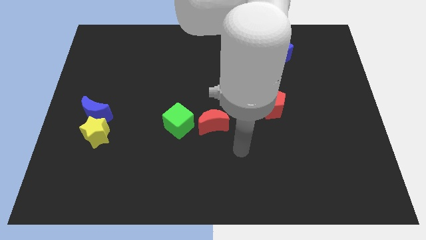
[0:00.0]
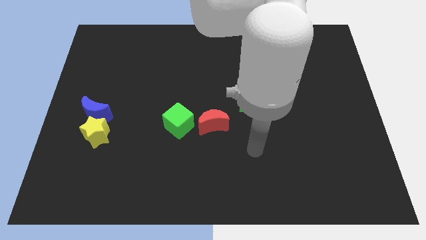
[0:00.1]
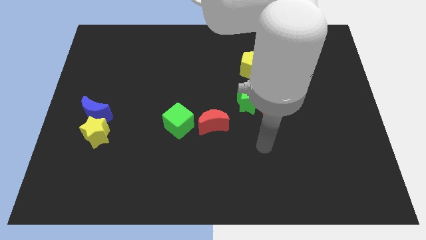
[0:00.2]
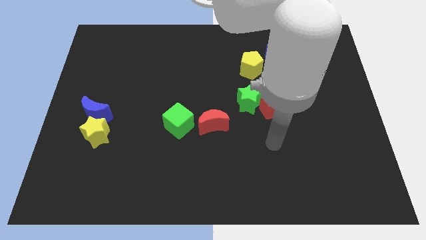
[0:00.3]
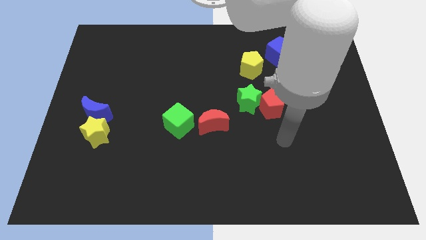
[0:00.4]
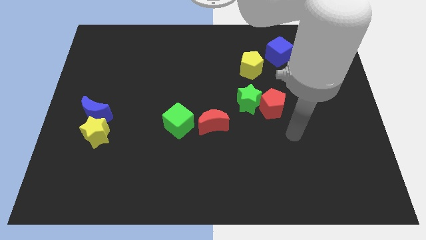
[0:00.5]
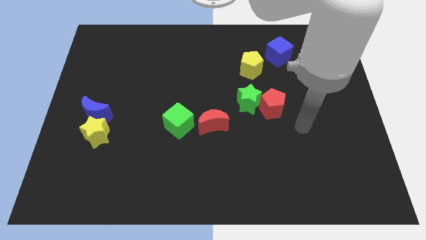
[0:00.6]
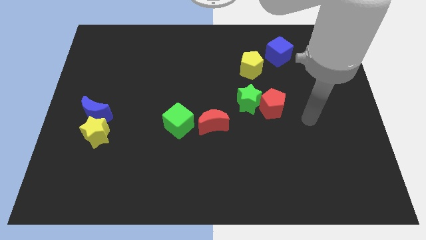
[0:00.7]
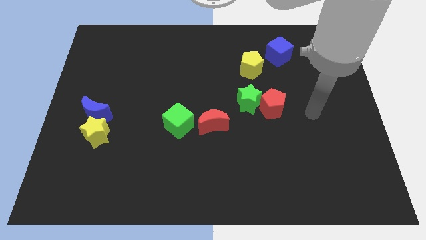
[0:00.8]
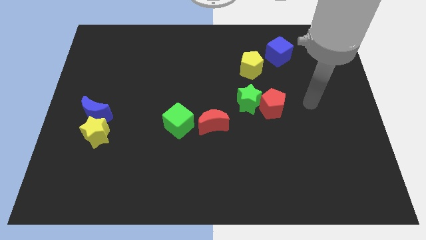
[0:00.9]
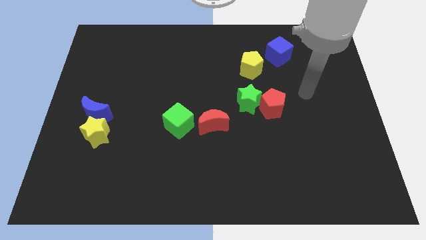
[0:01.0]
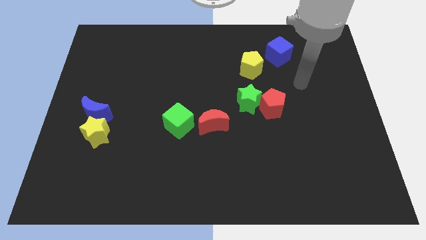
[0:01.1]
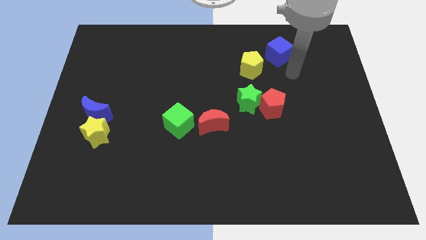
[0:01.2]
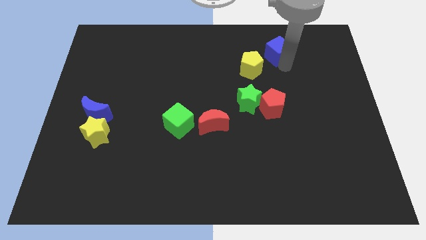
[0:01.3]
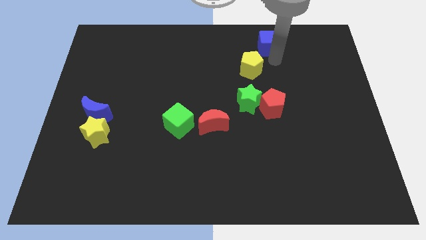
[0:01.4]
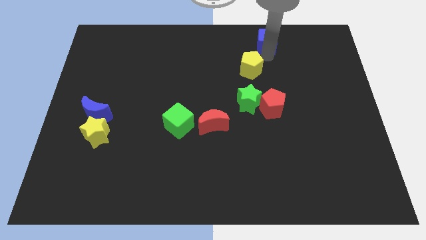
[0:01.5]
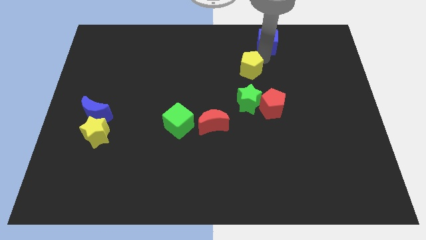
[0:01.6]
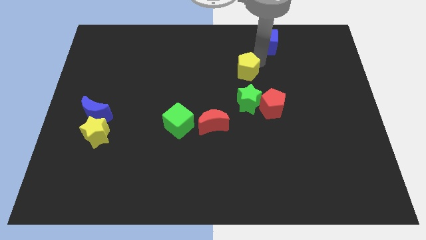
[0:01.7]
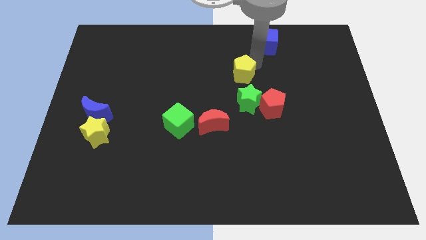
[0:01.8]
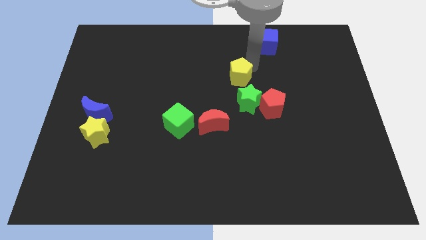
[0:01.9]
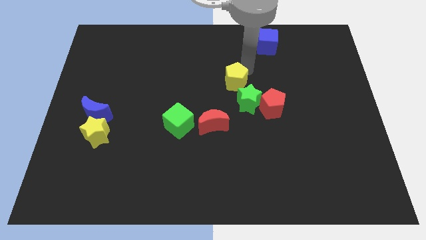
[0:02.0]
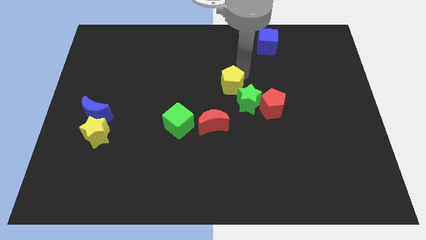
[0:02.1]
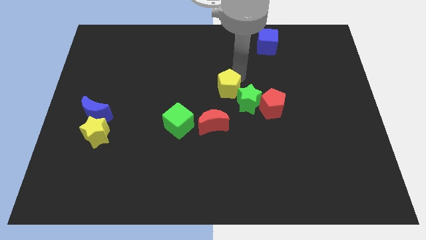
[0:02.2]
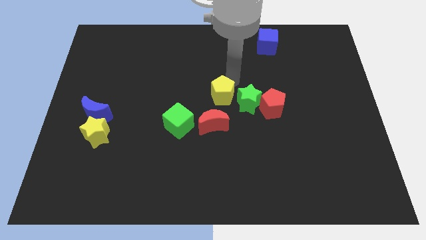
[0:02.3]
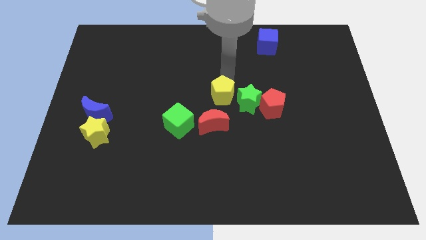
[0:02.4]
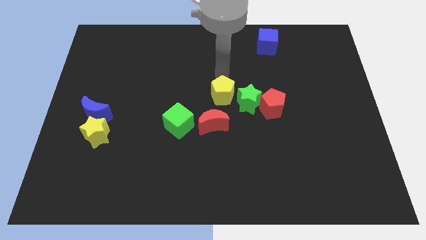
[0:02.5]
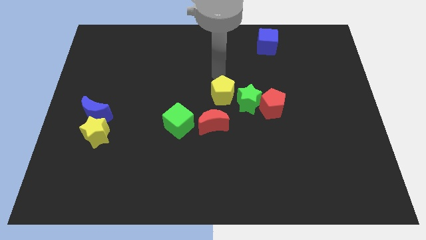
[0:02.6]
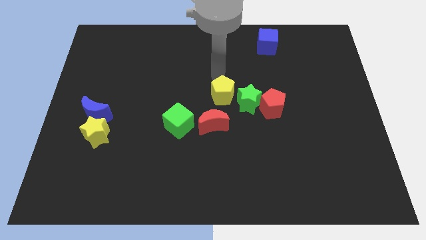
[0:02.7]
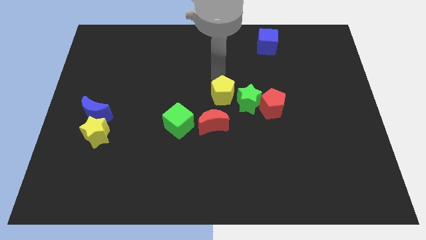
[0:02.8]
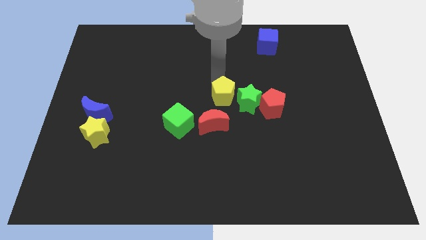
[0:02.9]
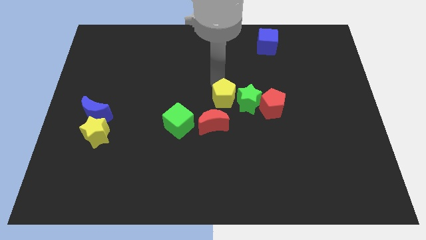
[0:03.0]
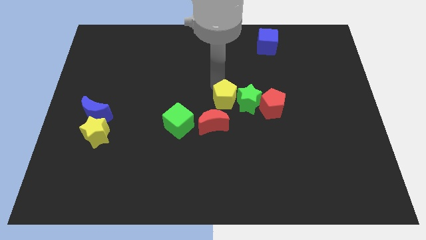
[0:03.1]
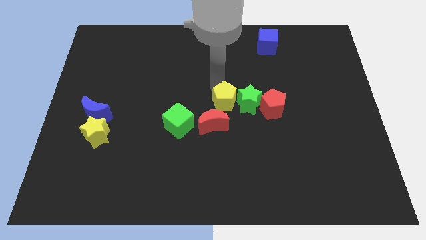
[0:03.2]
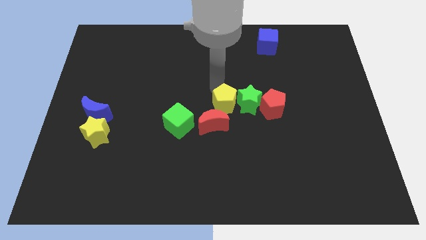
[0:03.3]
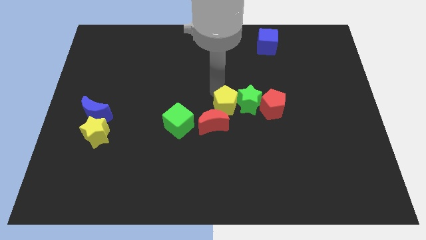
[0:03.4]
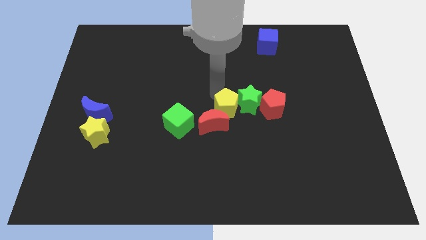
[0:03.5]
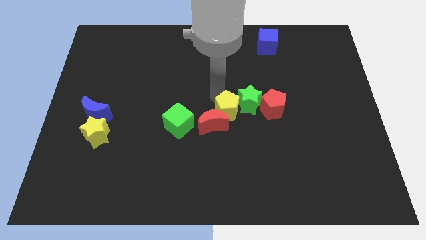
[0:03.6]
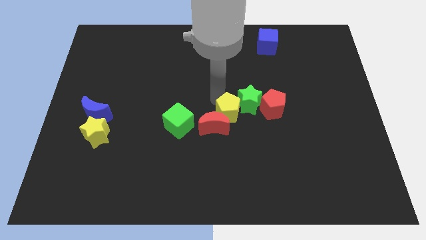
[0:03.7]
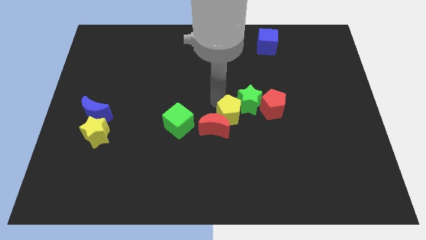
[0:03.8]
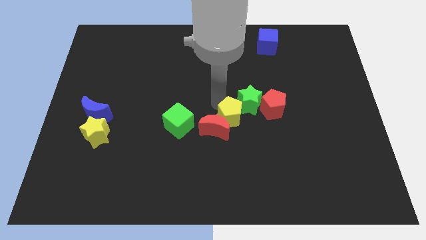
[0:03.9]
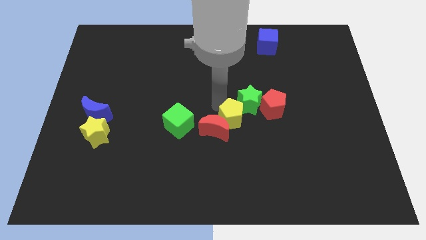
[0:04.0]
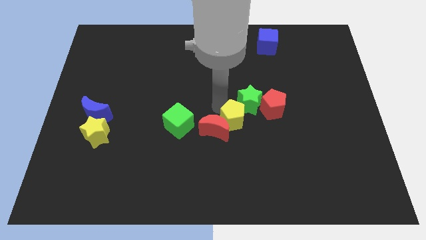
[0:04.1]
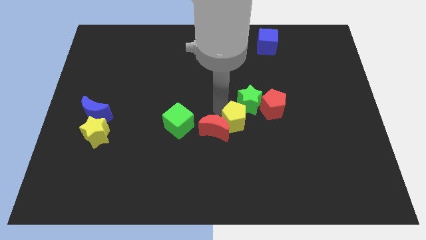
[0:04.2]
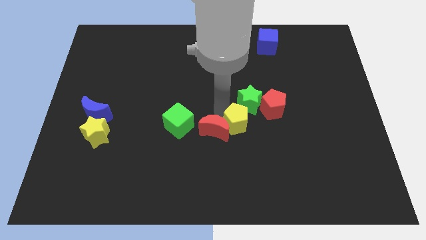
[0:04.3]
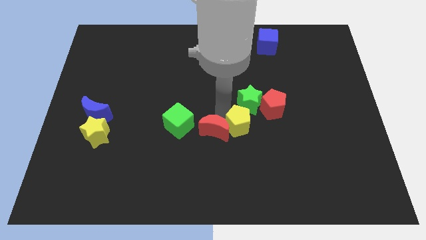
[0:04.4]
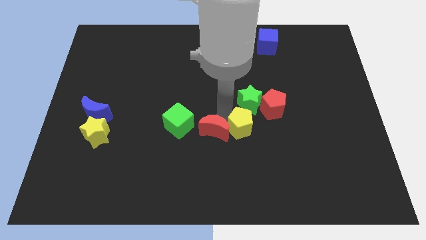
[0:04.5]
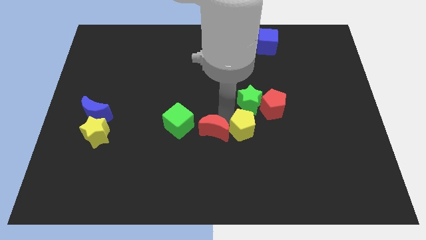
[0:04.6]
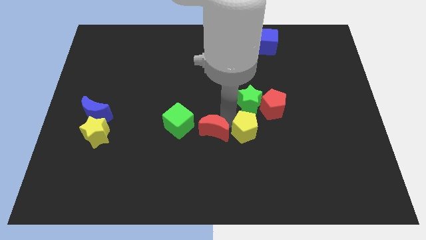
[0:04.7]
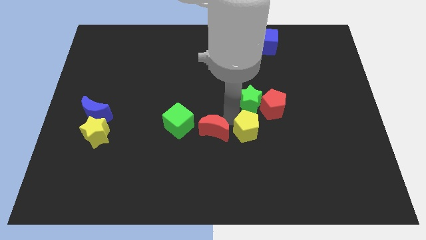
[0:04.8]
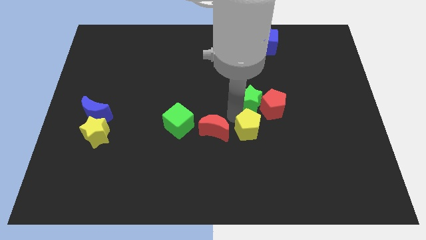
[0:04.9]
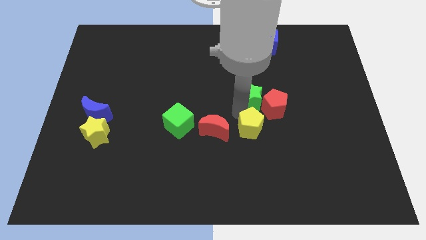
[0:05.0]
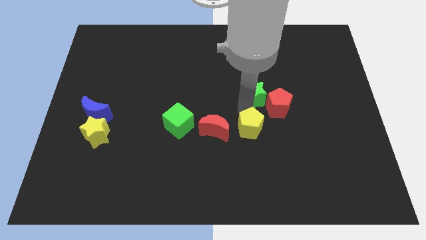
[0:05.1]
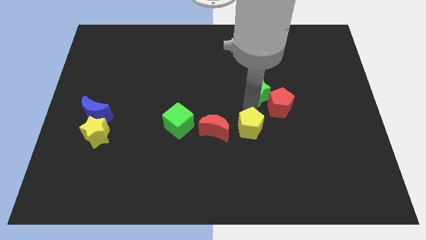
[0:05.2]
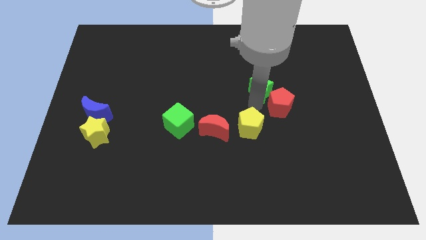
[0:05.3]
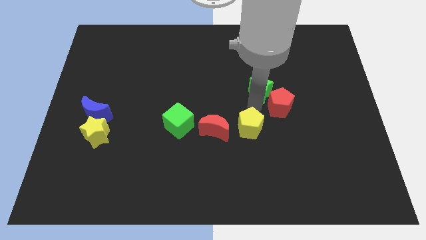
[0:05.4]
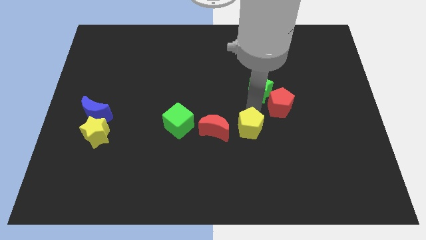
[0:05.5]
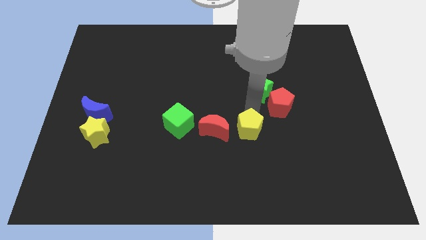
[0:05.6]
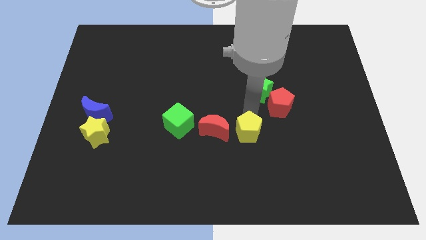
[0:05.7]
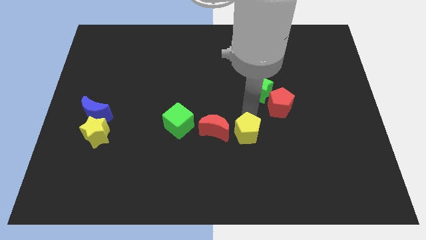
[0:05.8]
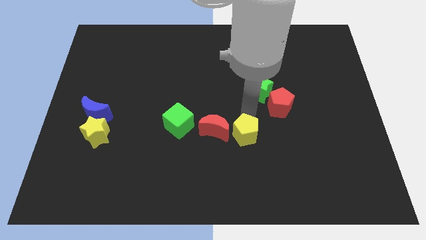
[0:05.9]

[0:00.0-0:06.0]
move the yellow pentagon downwards

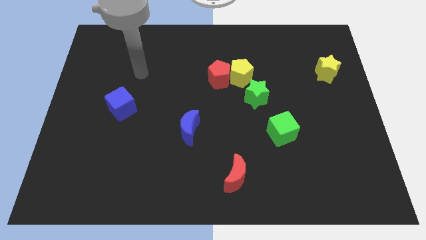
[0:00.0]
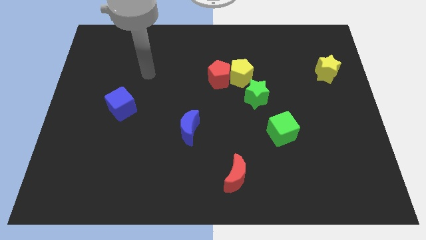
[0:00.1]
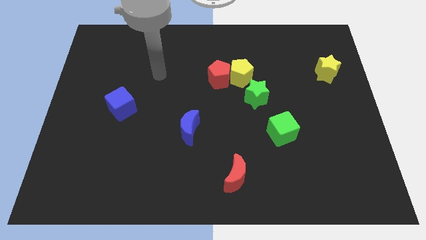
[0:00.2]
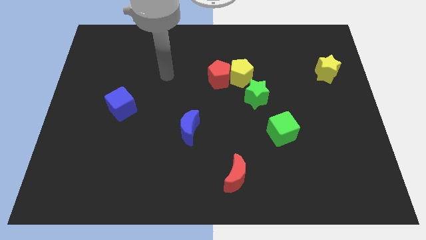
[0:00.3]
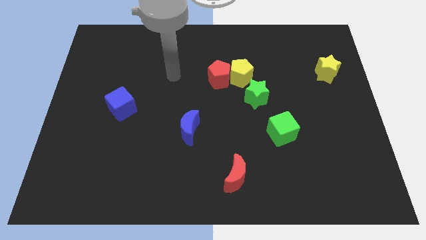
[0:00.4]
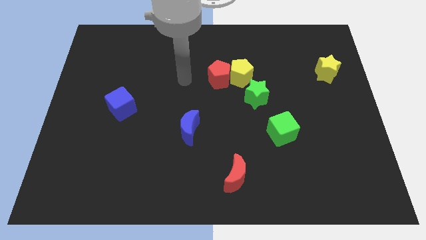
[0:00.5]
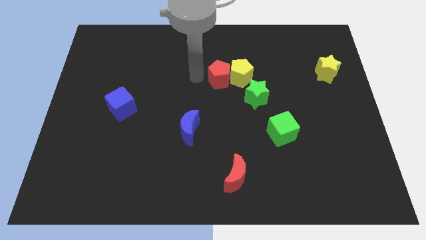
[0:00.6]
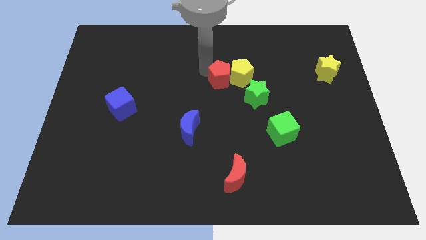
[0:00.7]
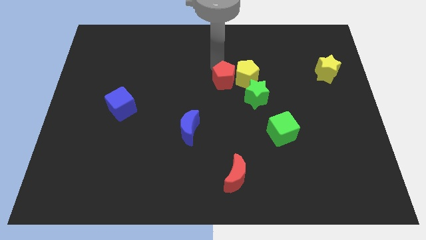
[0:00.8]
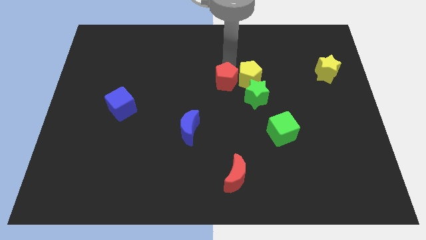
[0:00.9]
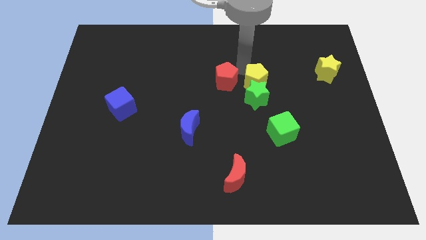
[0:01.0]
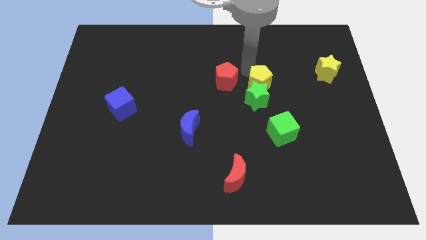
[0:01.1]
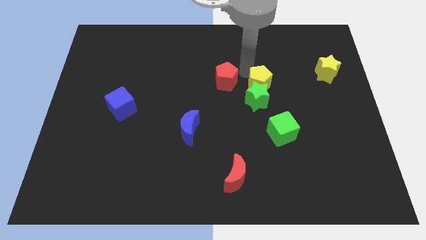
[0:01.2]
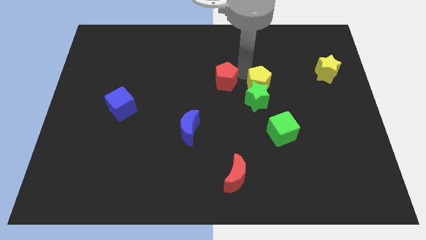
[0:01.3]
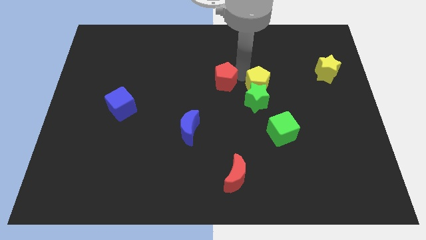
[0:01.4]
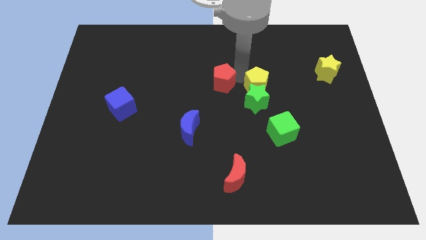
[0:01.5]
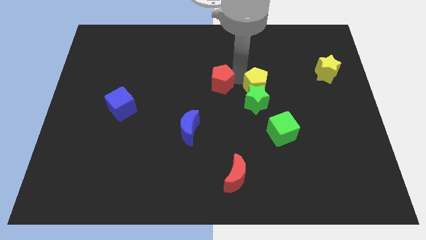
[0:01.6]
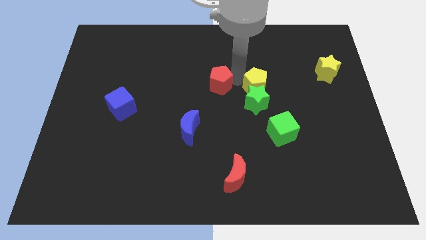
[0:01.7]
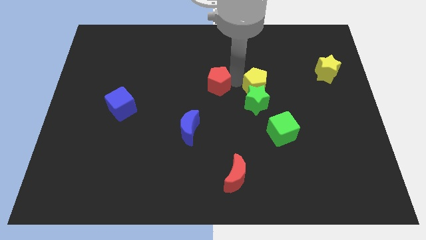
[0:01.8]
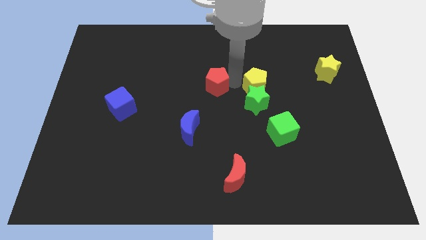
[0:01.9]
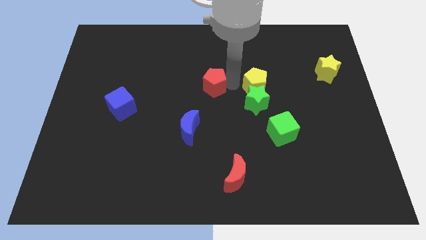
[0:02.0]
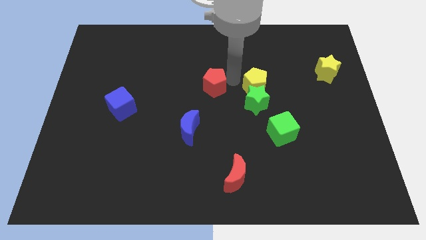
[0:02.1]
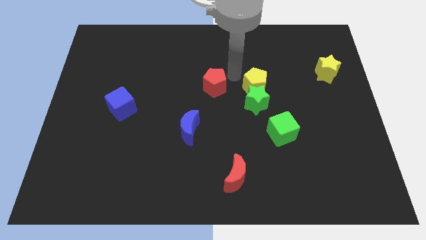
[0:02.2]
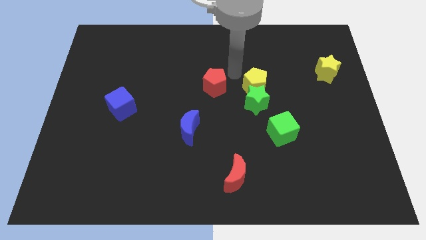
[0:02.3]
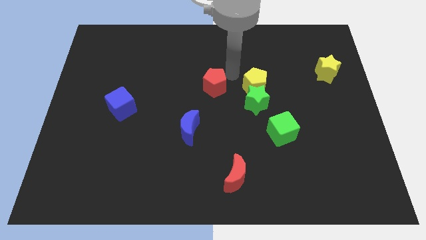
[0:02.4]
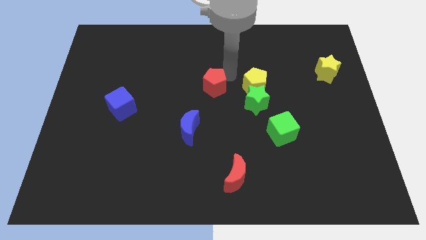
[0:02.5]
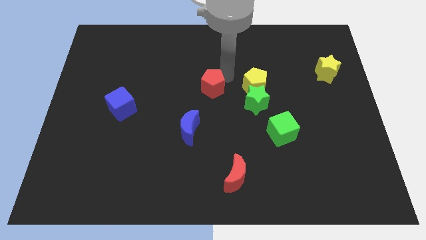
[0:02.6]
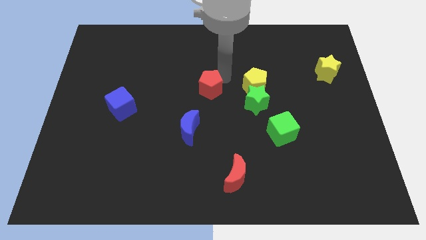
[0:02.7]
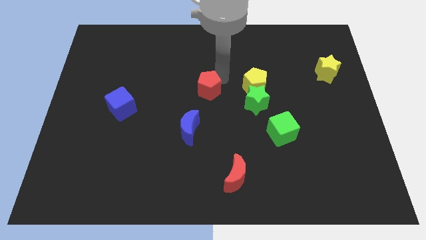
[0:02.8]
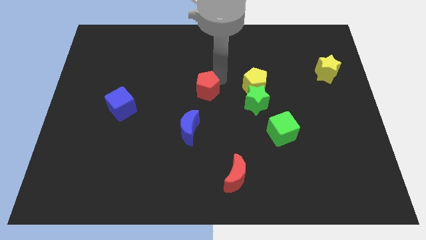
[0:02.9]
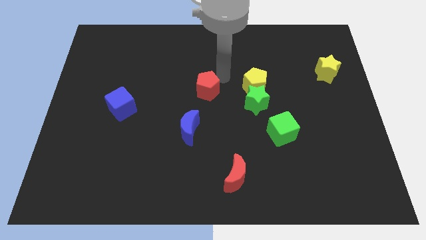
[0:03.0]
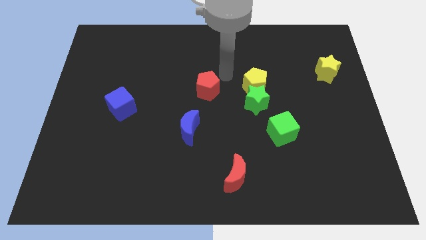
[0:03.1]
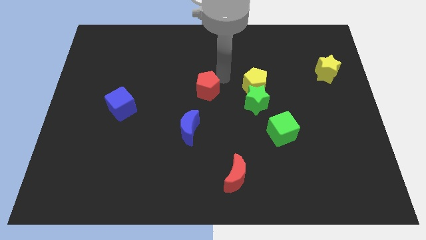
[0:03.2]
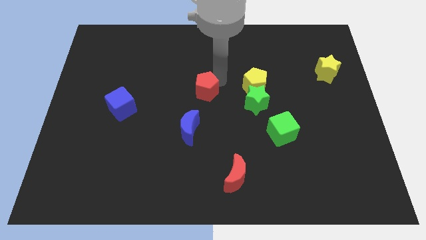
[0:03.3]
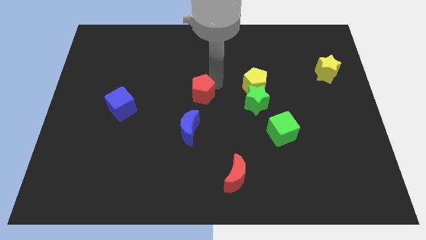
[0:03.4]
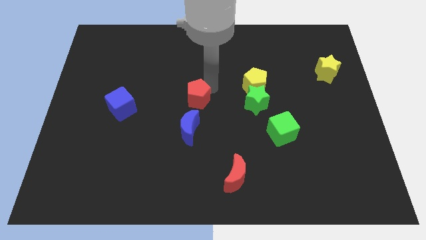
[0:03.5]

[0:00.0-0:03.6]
push the red pentagon a little bit down and to the left
